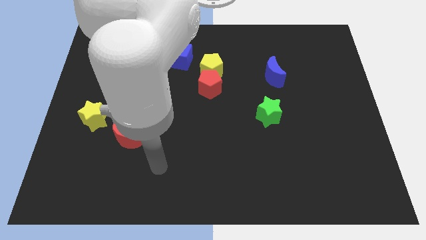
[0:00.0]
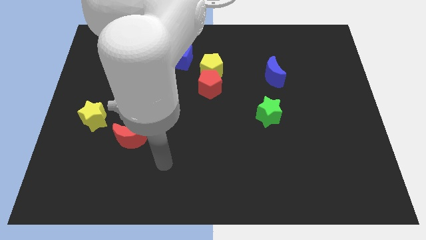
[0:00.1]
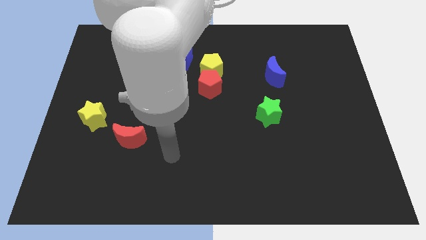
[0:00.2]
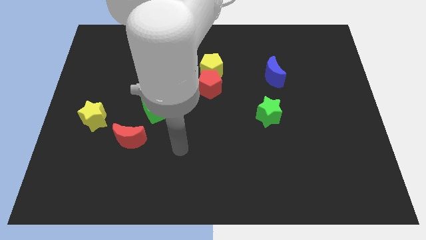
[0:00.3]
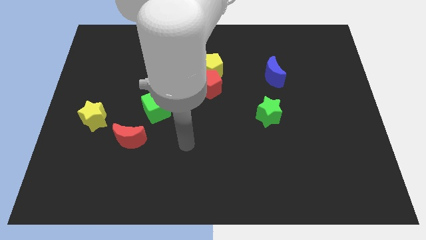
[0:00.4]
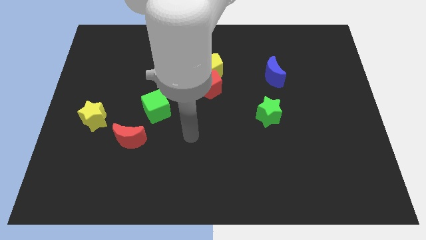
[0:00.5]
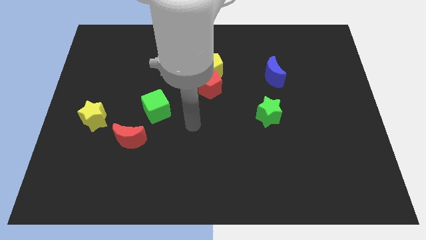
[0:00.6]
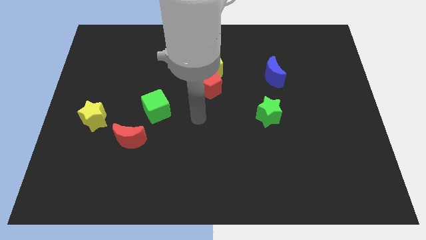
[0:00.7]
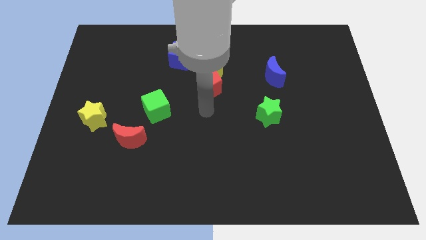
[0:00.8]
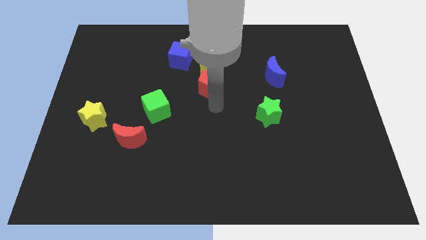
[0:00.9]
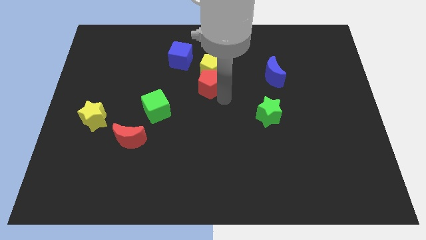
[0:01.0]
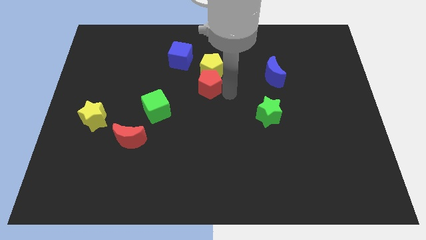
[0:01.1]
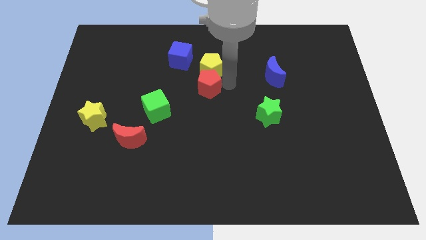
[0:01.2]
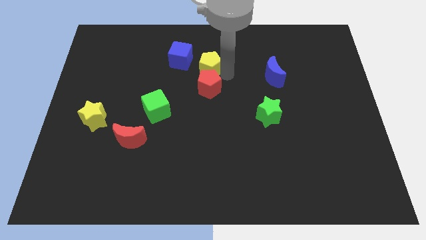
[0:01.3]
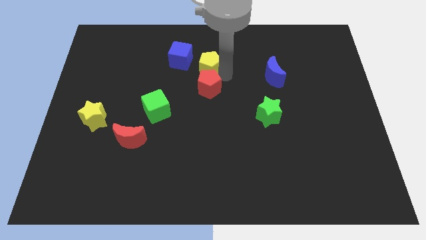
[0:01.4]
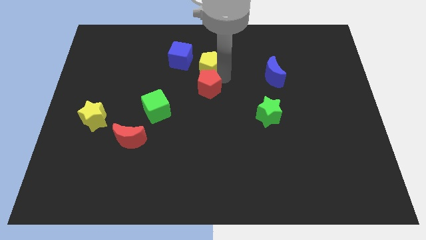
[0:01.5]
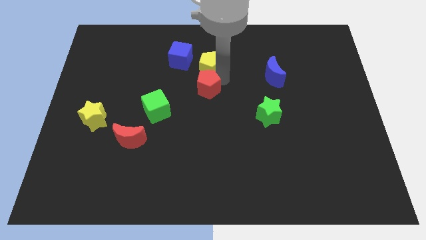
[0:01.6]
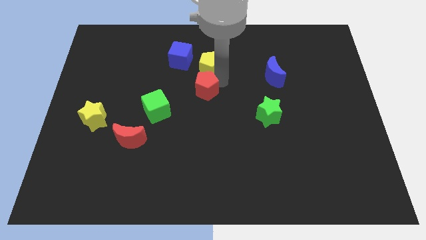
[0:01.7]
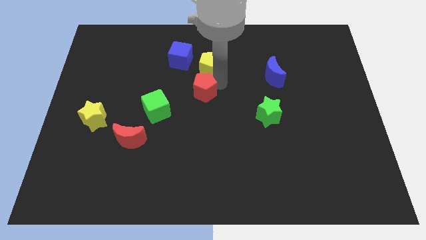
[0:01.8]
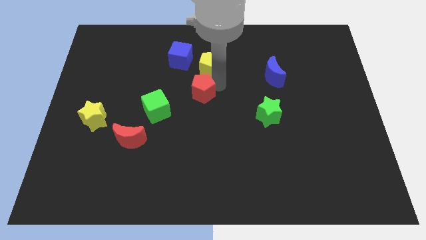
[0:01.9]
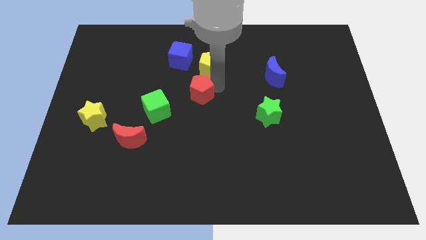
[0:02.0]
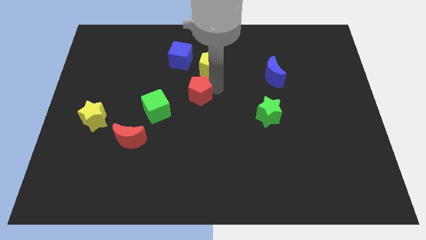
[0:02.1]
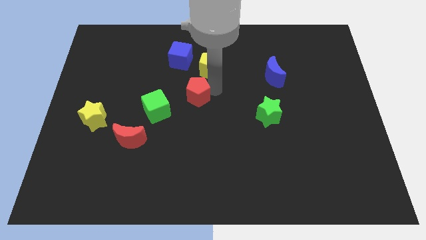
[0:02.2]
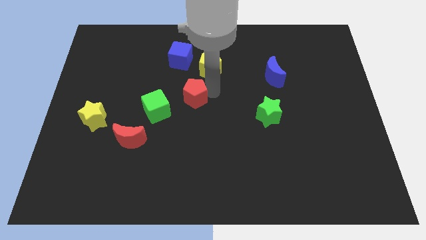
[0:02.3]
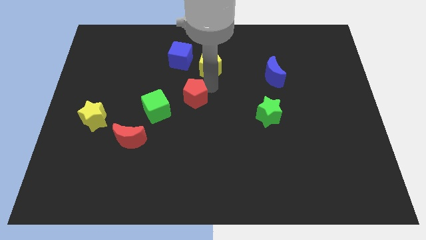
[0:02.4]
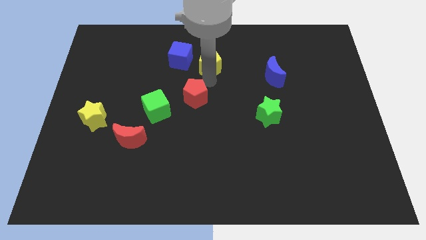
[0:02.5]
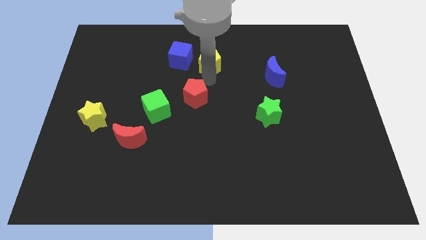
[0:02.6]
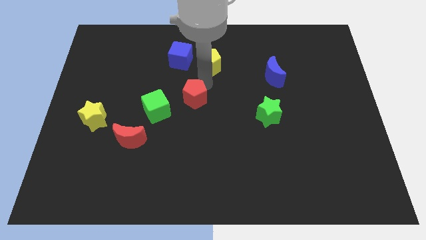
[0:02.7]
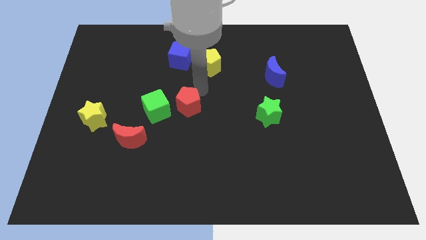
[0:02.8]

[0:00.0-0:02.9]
move the red pentagon a little bit diagonally down and left

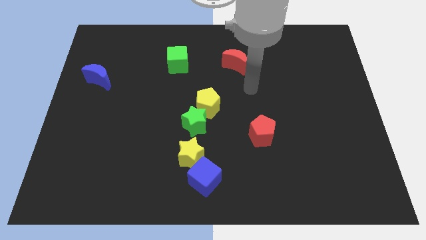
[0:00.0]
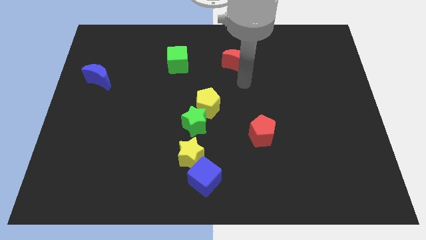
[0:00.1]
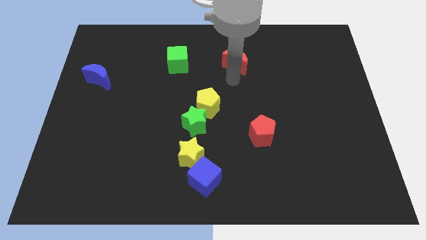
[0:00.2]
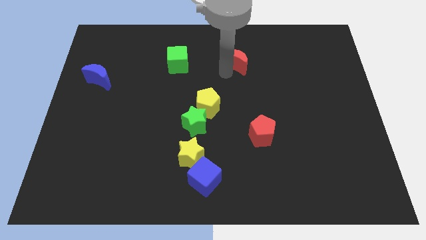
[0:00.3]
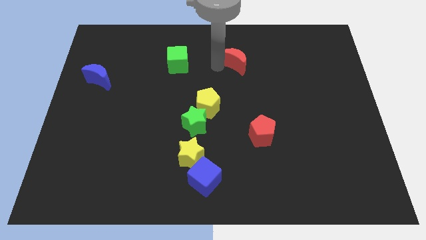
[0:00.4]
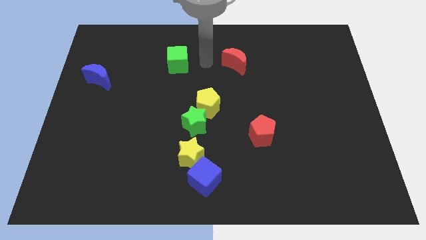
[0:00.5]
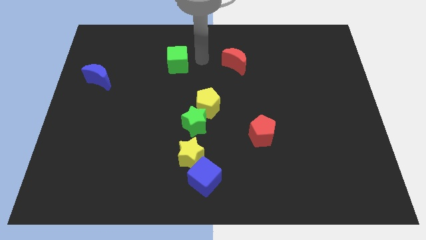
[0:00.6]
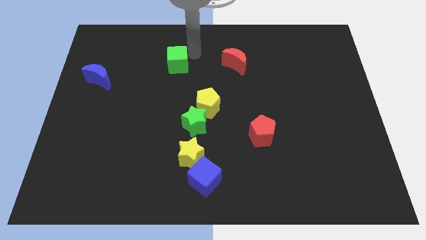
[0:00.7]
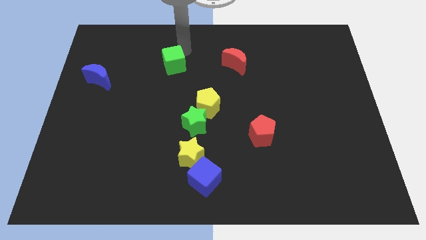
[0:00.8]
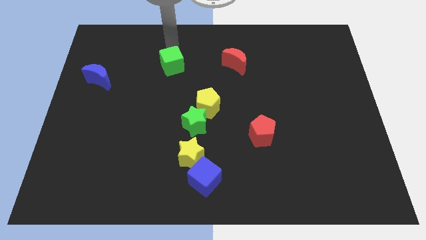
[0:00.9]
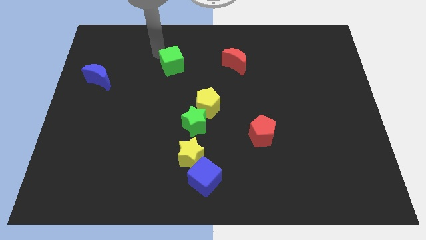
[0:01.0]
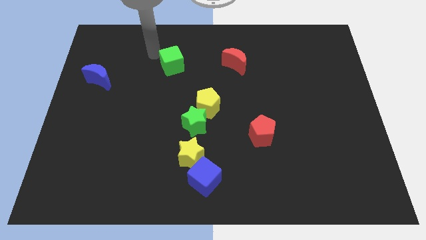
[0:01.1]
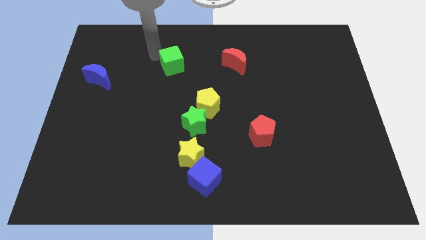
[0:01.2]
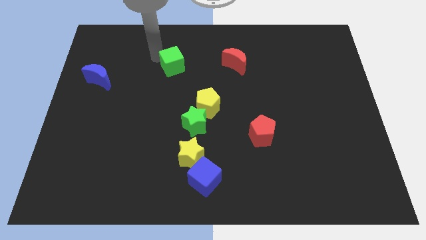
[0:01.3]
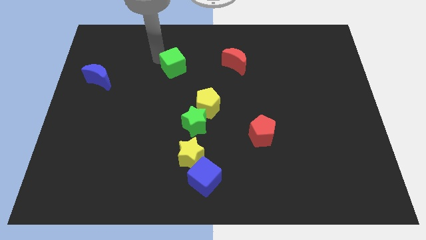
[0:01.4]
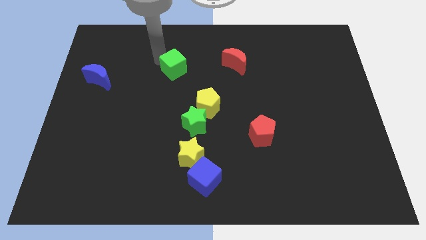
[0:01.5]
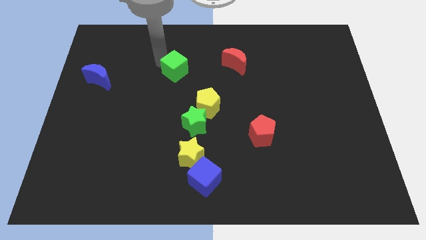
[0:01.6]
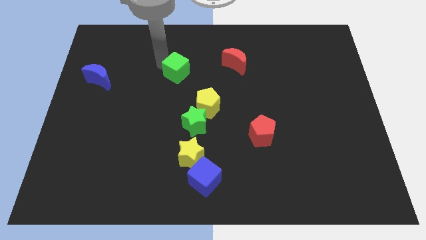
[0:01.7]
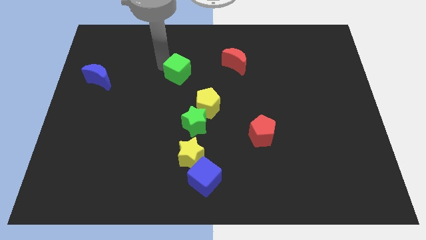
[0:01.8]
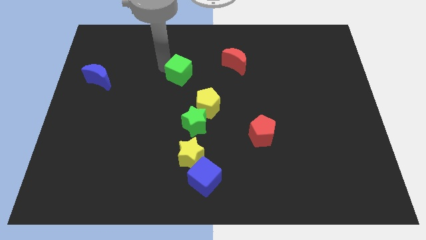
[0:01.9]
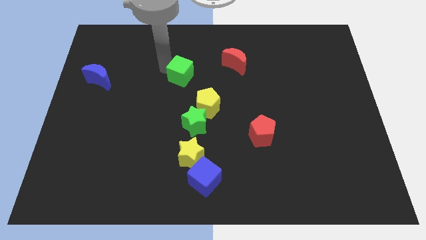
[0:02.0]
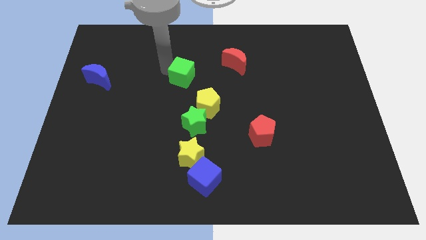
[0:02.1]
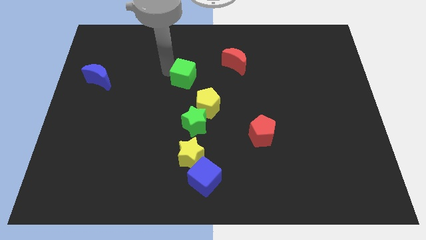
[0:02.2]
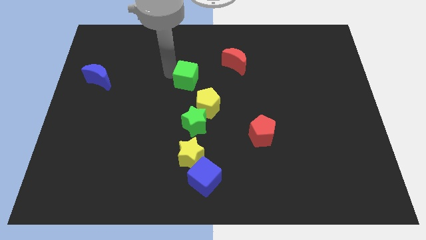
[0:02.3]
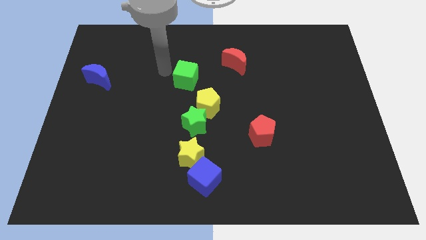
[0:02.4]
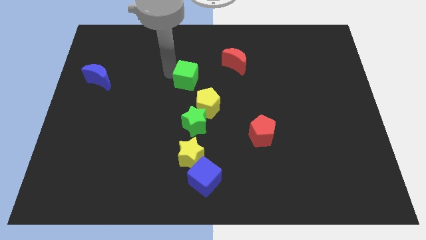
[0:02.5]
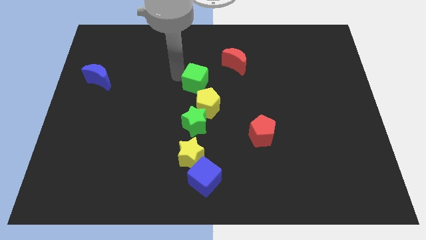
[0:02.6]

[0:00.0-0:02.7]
move the green cube downwards and right somewhat

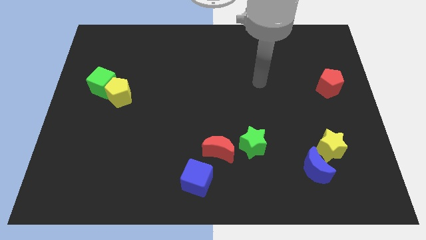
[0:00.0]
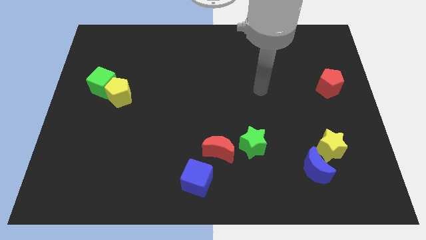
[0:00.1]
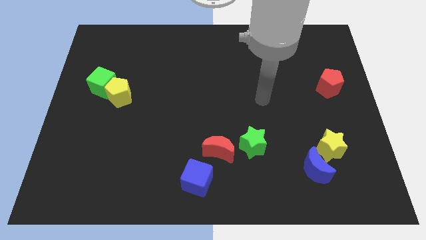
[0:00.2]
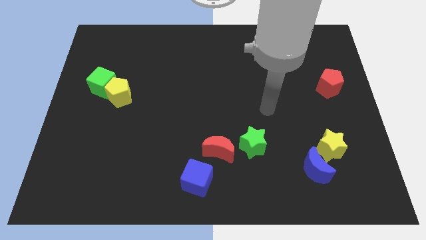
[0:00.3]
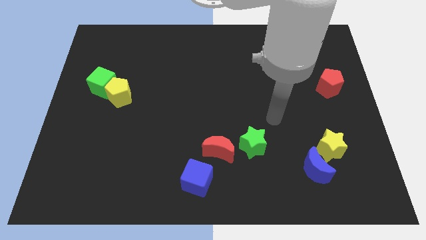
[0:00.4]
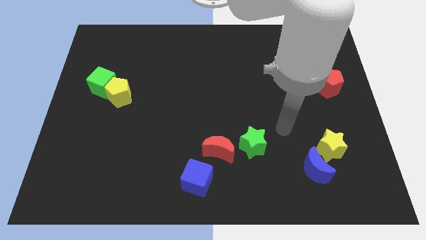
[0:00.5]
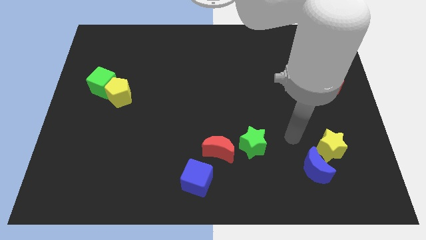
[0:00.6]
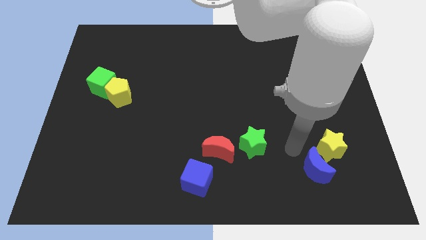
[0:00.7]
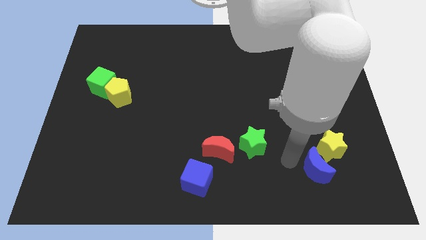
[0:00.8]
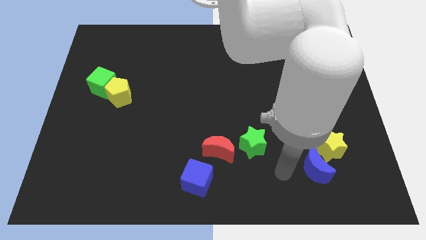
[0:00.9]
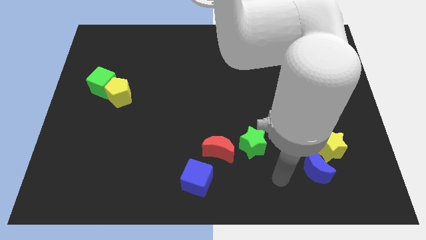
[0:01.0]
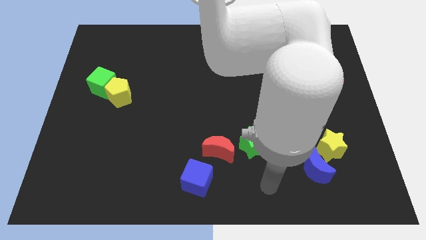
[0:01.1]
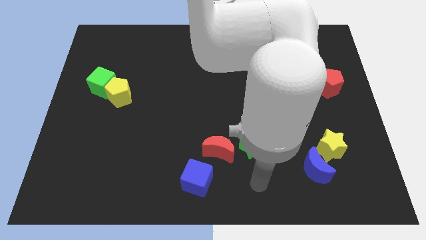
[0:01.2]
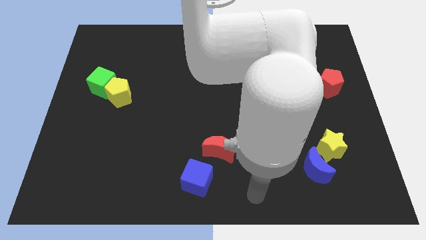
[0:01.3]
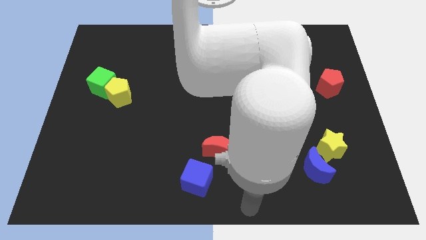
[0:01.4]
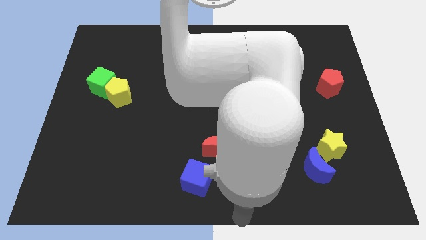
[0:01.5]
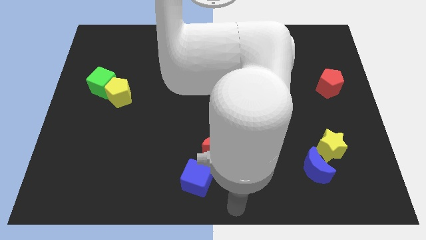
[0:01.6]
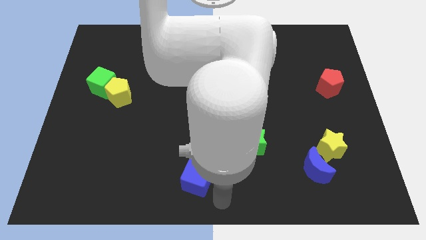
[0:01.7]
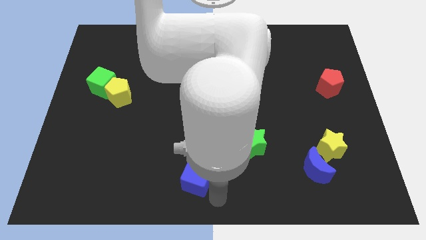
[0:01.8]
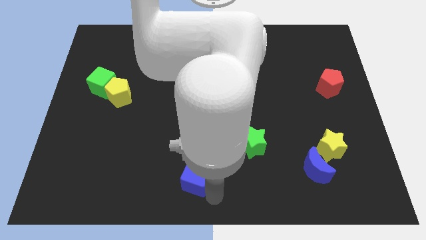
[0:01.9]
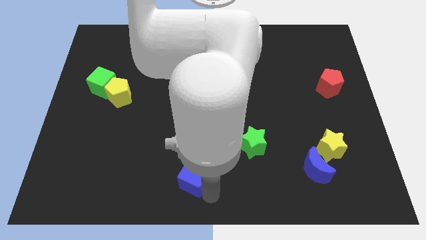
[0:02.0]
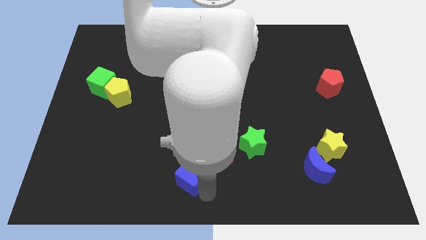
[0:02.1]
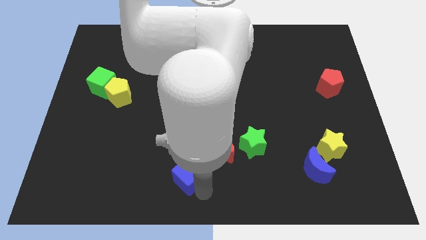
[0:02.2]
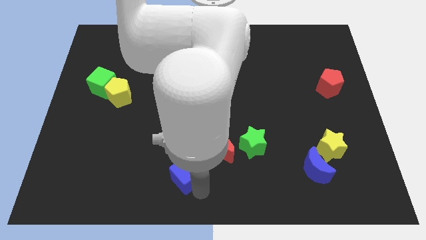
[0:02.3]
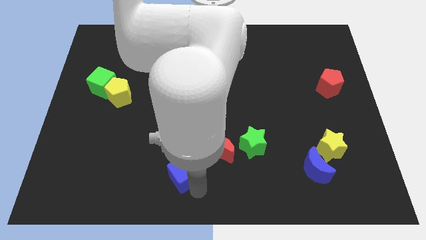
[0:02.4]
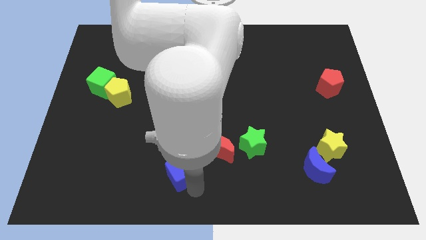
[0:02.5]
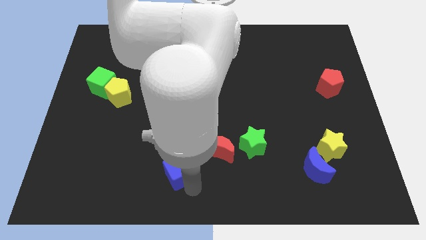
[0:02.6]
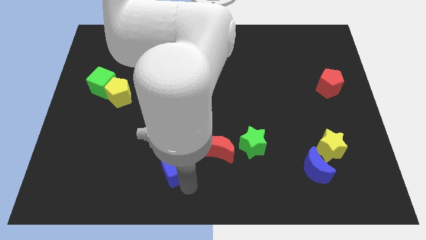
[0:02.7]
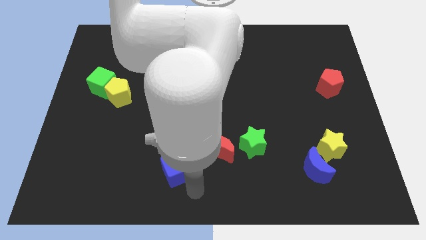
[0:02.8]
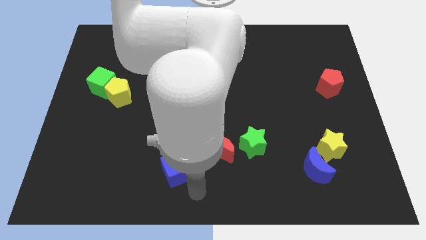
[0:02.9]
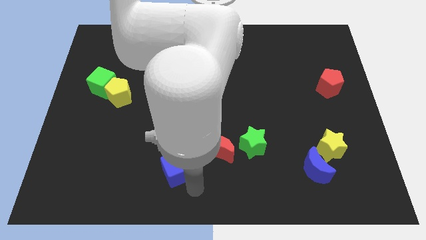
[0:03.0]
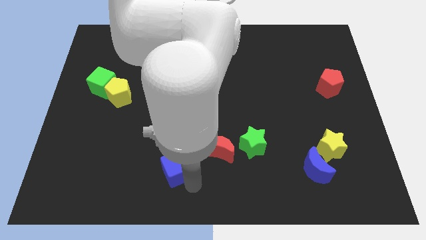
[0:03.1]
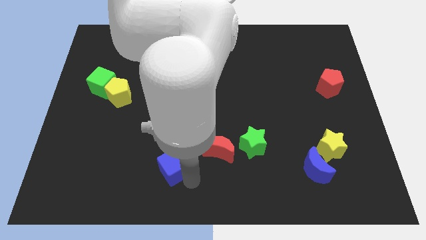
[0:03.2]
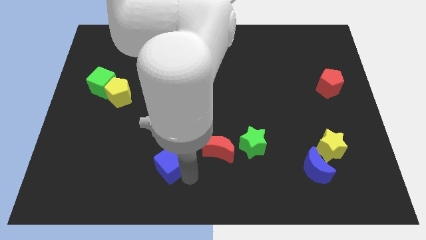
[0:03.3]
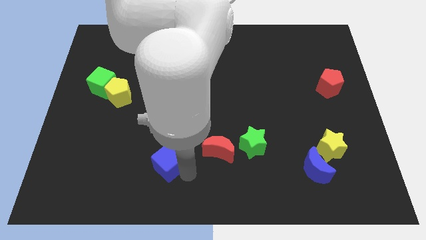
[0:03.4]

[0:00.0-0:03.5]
move the blue cube somewhat up and then left
